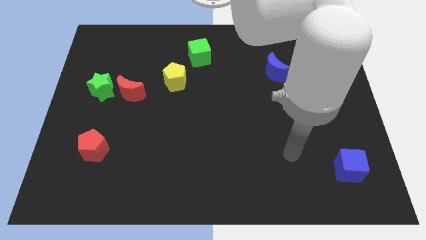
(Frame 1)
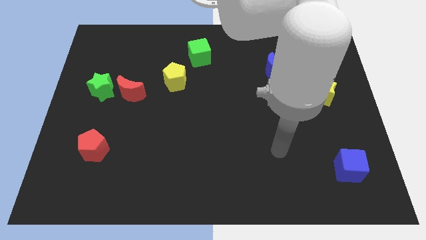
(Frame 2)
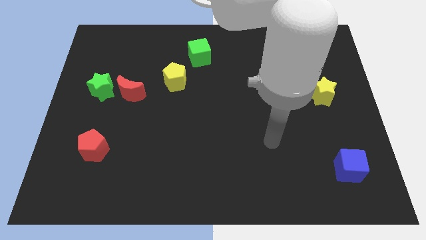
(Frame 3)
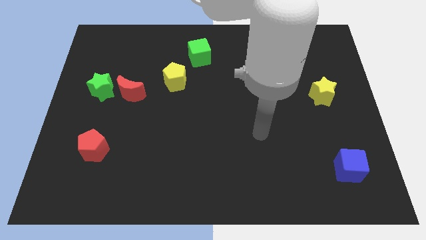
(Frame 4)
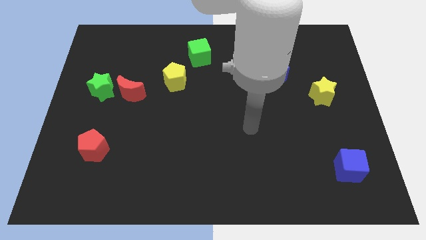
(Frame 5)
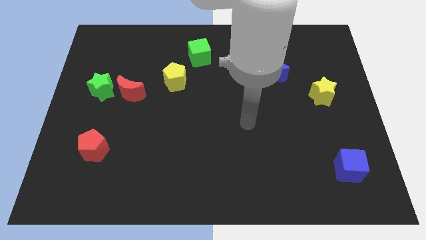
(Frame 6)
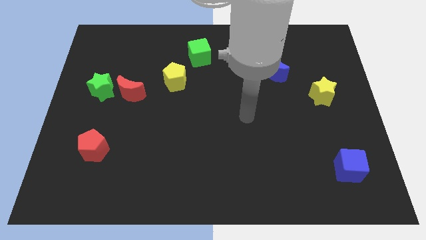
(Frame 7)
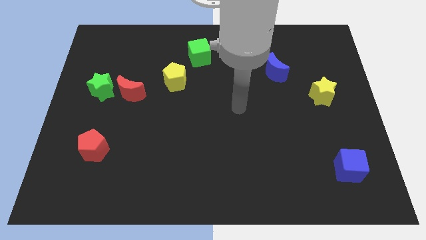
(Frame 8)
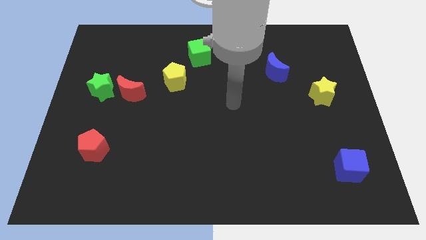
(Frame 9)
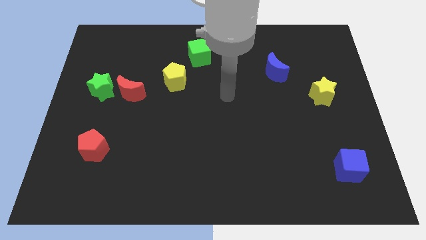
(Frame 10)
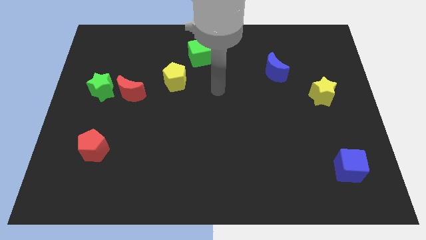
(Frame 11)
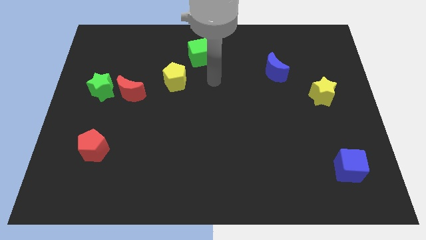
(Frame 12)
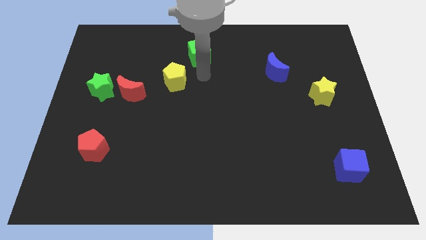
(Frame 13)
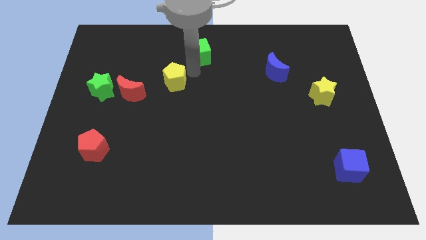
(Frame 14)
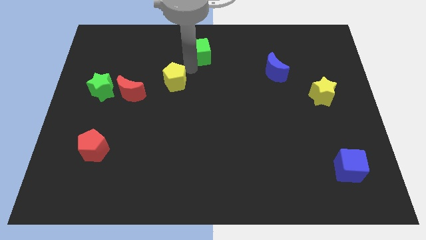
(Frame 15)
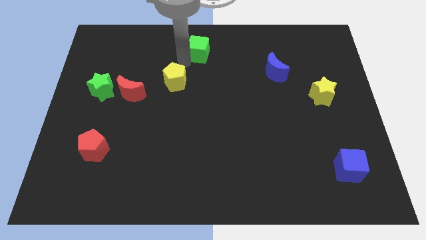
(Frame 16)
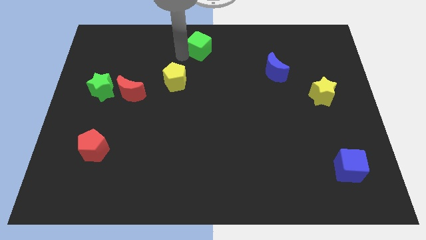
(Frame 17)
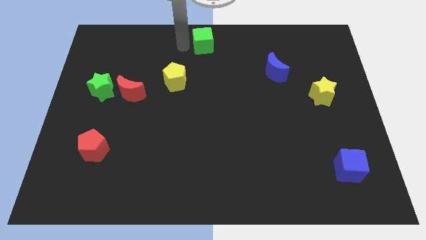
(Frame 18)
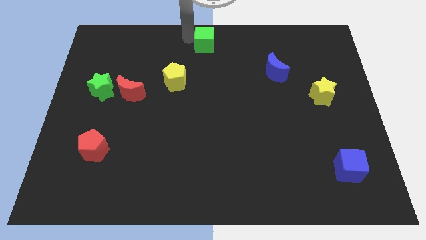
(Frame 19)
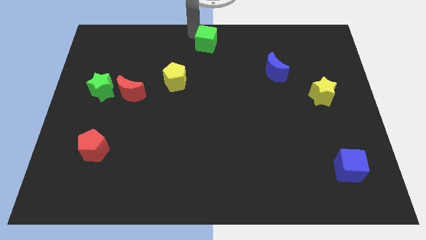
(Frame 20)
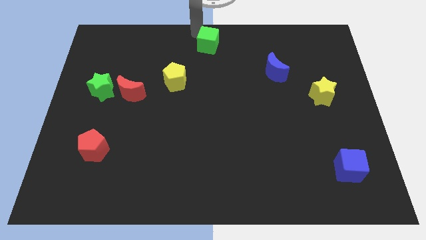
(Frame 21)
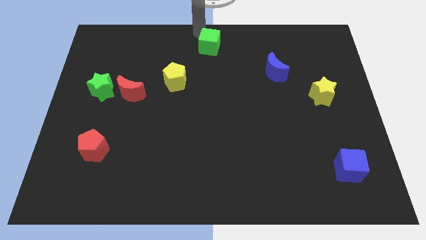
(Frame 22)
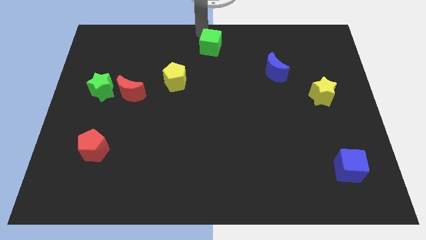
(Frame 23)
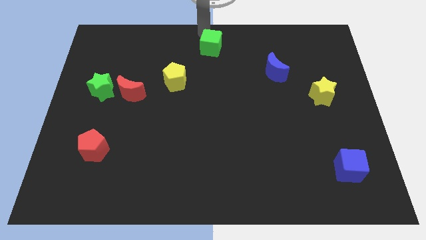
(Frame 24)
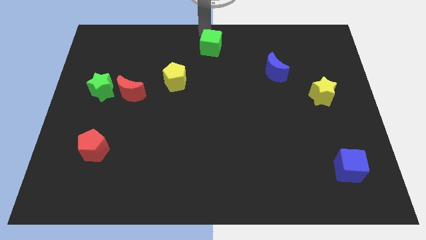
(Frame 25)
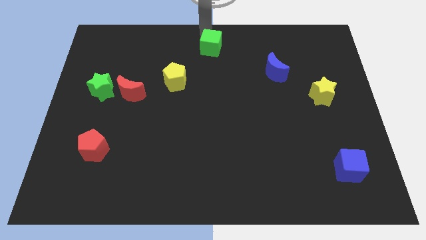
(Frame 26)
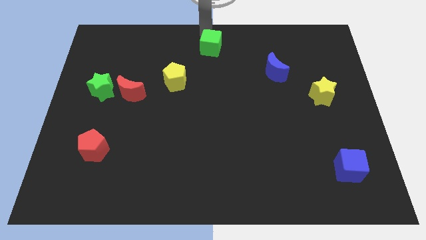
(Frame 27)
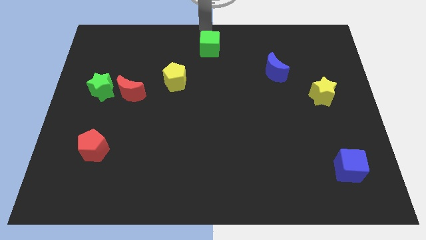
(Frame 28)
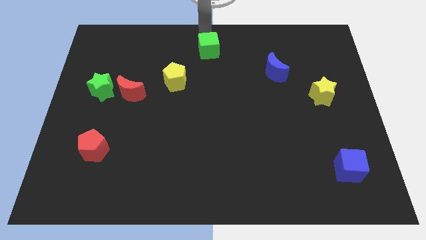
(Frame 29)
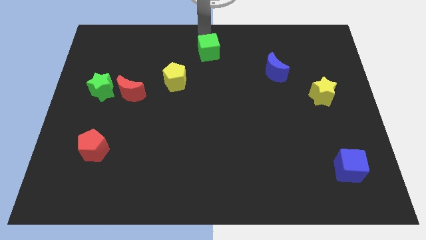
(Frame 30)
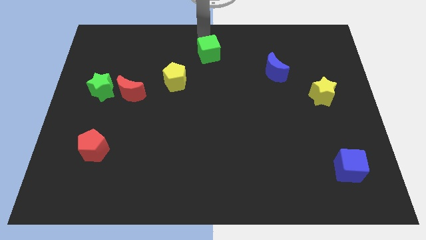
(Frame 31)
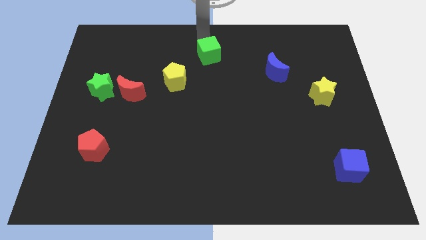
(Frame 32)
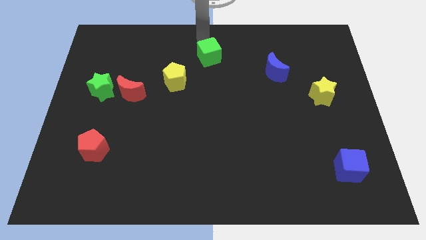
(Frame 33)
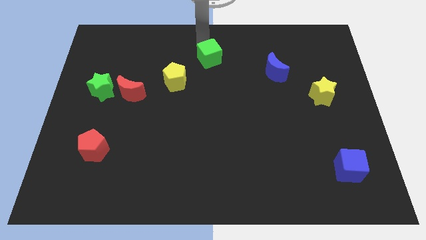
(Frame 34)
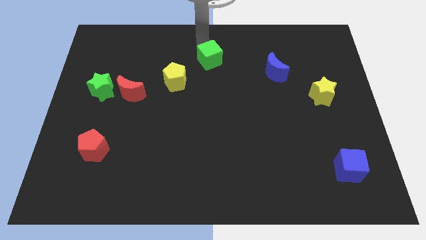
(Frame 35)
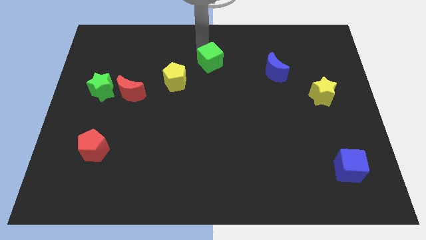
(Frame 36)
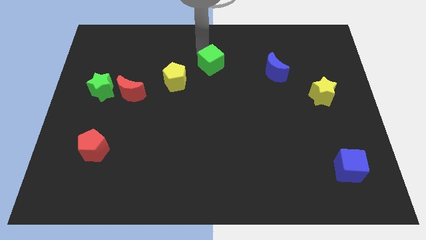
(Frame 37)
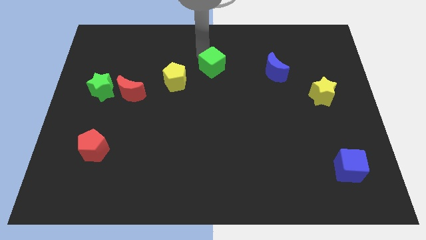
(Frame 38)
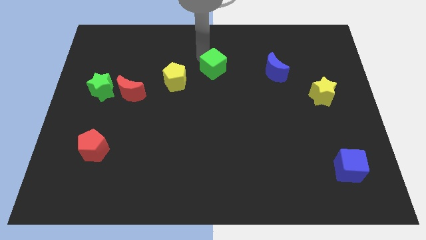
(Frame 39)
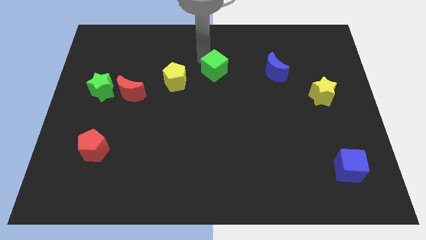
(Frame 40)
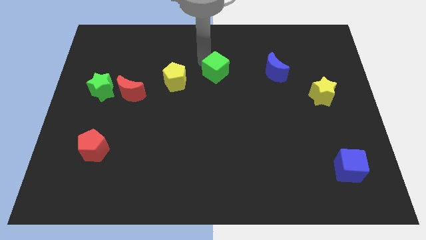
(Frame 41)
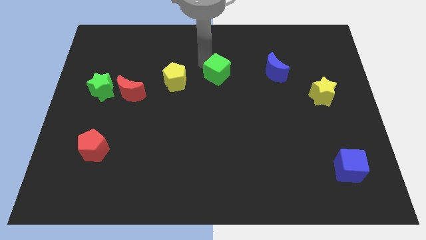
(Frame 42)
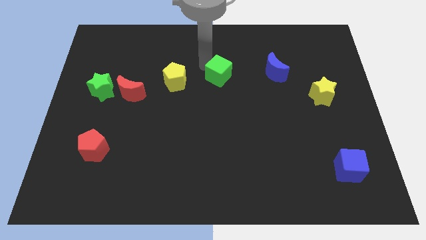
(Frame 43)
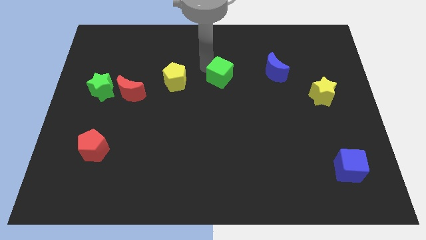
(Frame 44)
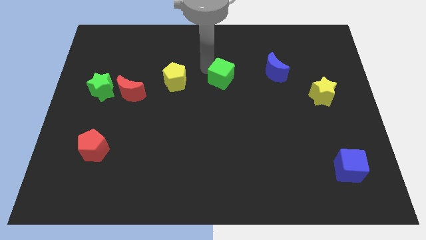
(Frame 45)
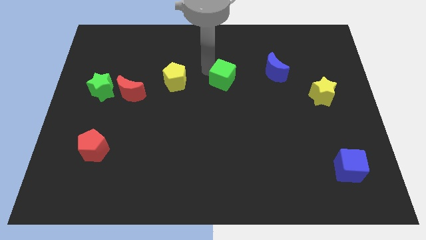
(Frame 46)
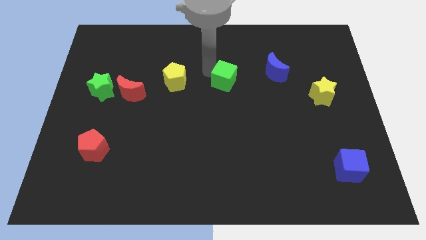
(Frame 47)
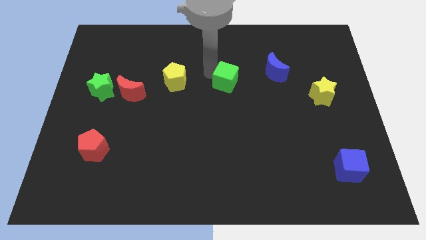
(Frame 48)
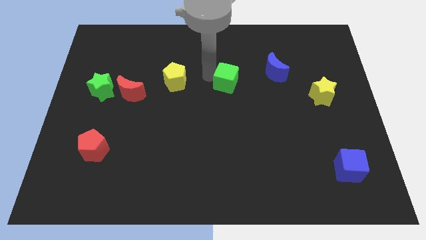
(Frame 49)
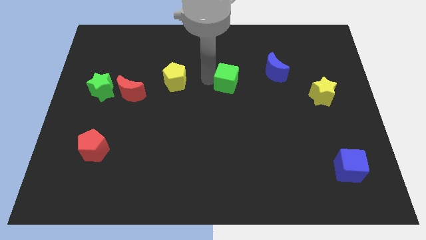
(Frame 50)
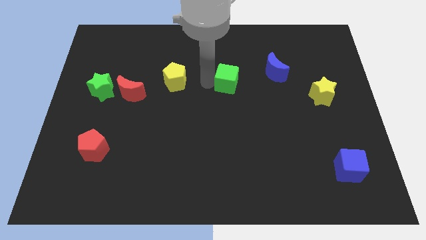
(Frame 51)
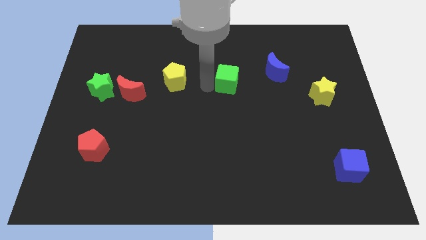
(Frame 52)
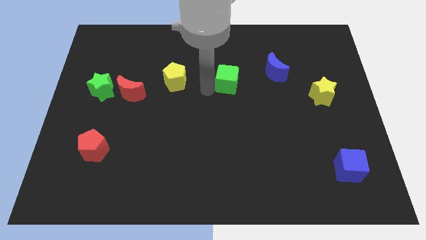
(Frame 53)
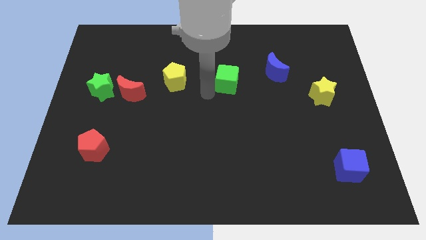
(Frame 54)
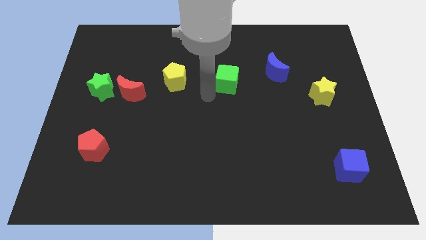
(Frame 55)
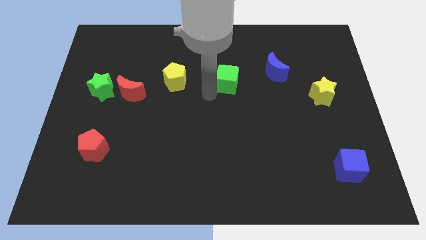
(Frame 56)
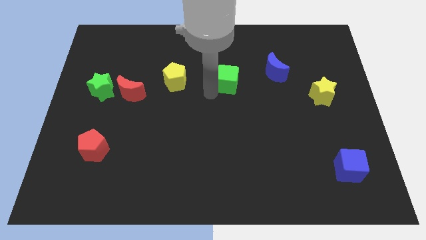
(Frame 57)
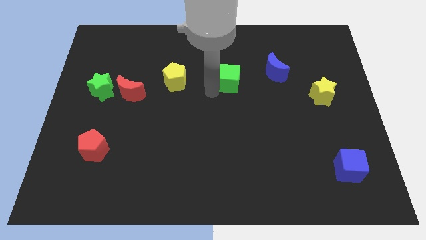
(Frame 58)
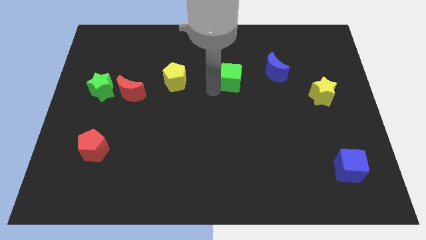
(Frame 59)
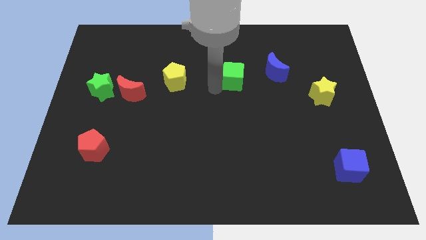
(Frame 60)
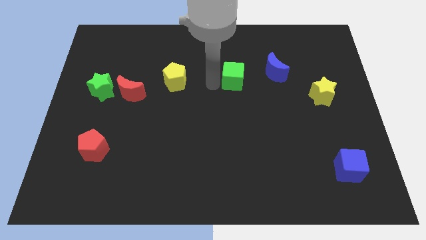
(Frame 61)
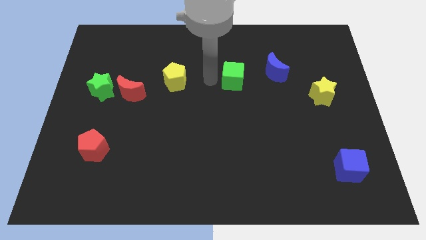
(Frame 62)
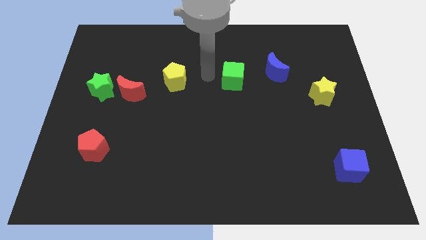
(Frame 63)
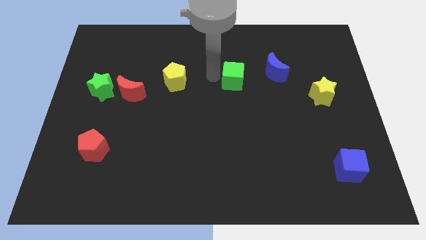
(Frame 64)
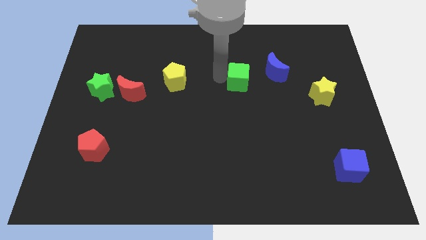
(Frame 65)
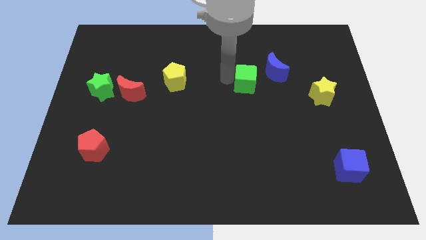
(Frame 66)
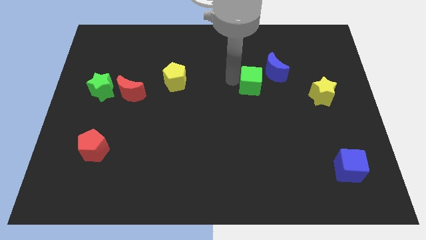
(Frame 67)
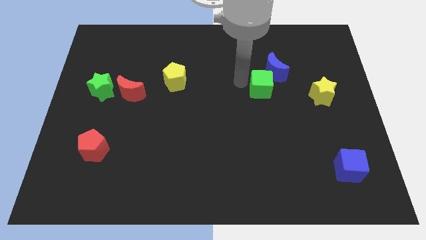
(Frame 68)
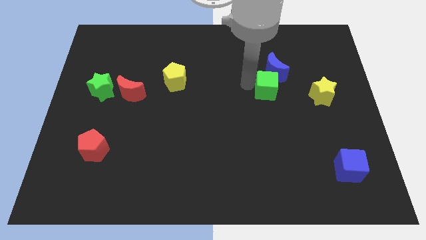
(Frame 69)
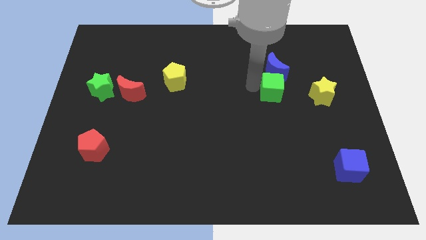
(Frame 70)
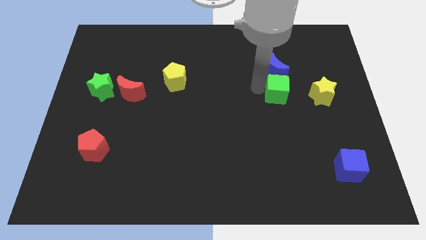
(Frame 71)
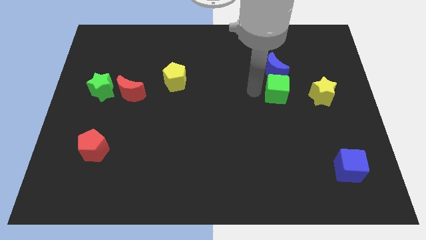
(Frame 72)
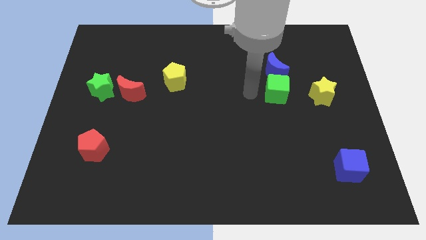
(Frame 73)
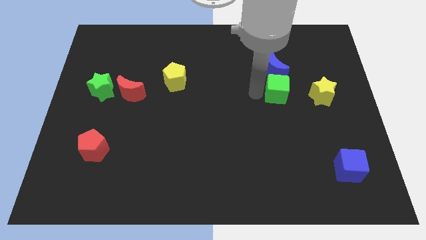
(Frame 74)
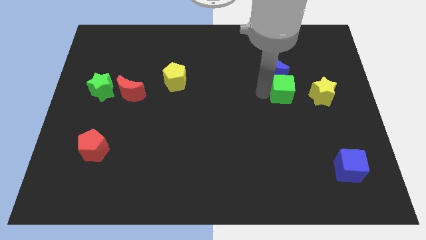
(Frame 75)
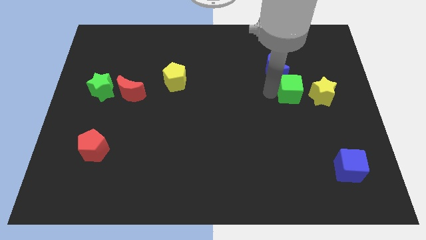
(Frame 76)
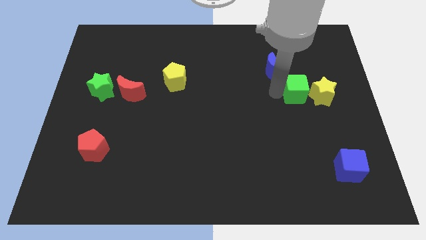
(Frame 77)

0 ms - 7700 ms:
push the green cube next to the yellow star
